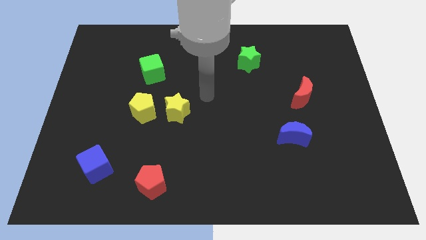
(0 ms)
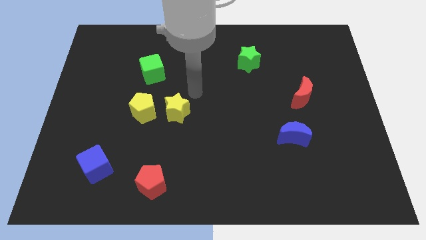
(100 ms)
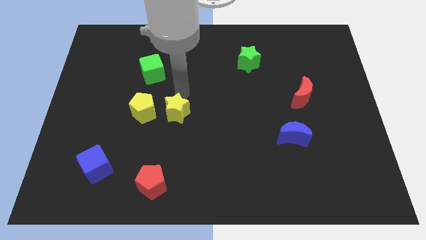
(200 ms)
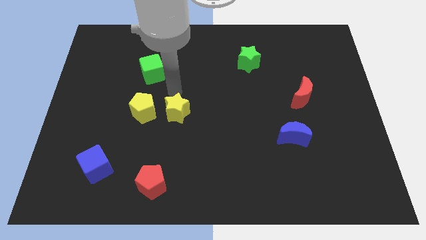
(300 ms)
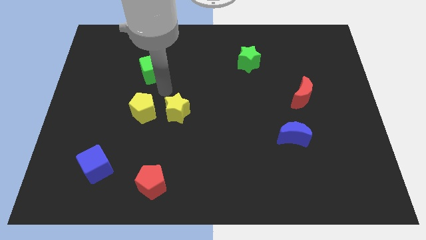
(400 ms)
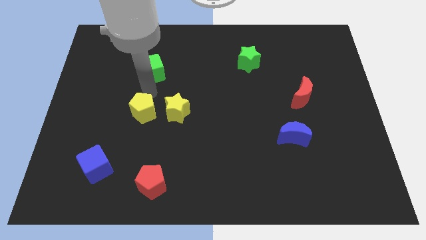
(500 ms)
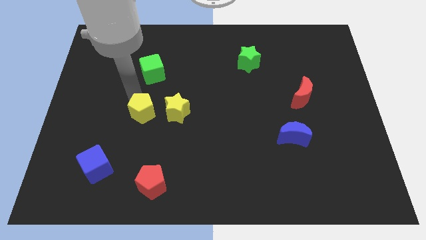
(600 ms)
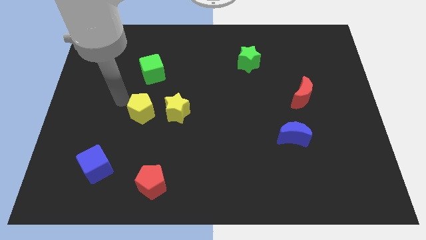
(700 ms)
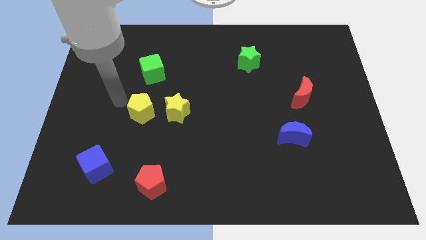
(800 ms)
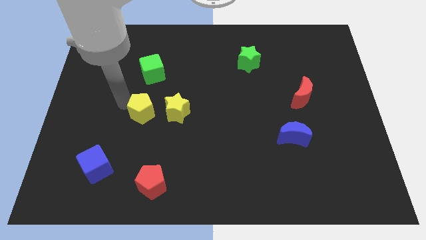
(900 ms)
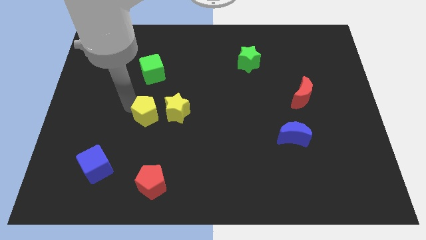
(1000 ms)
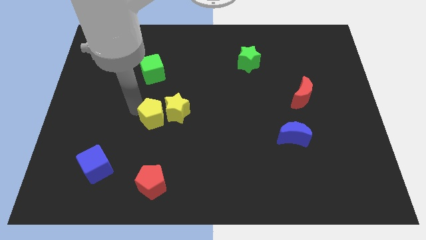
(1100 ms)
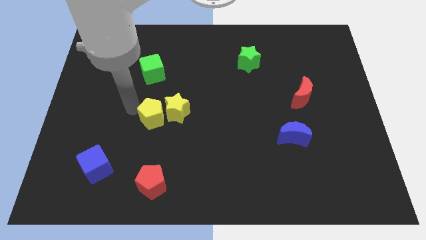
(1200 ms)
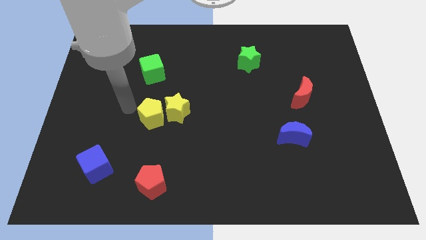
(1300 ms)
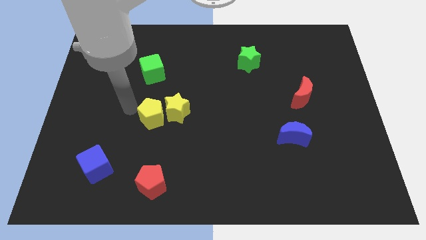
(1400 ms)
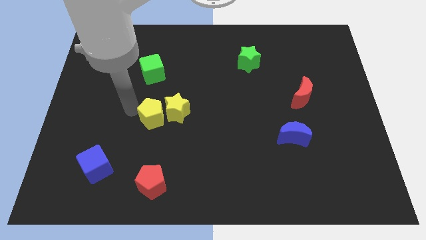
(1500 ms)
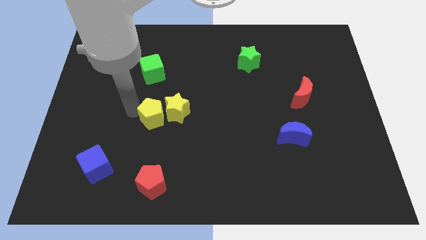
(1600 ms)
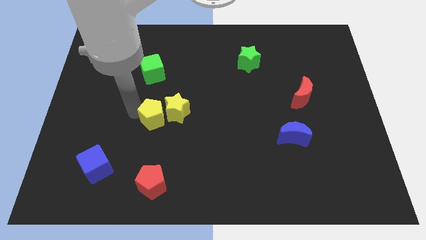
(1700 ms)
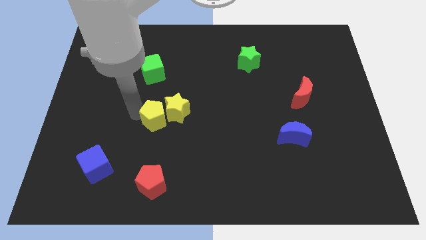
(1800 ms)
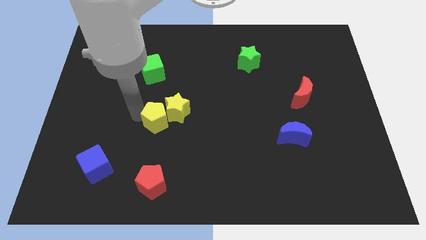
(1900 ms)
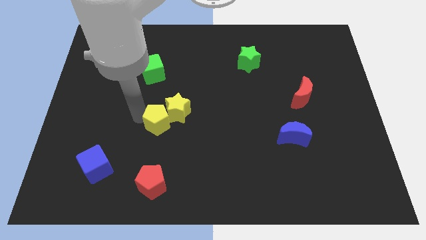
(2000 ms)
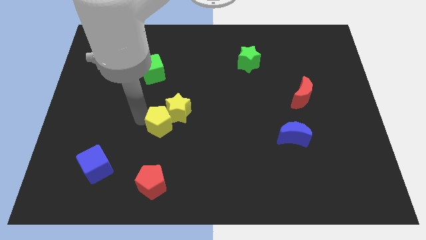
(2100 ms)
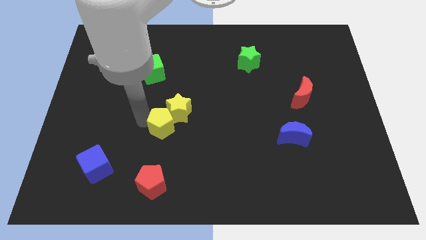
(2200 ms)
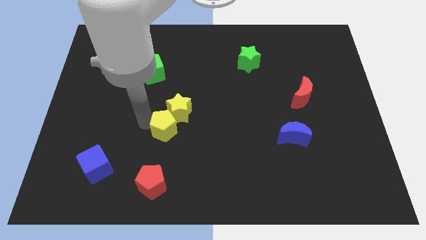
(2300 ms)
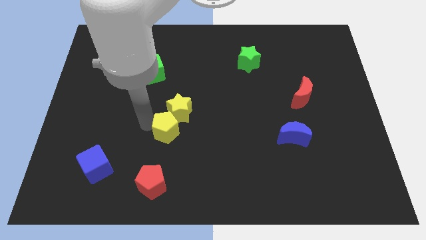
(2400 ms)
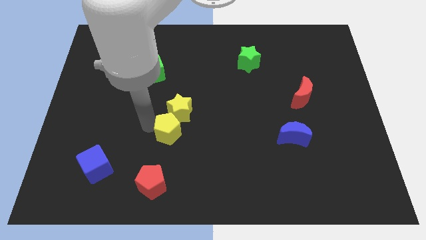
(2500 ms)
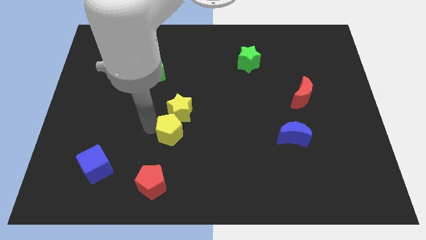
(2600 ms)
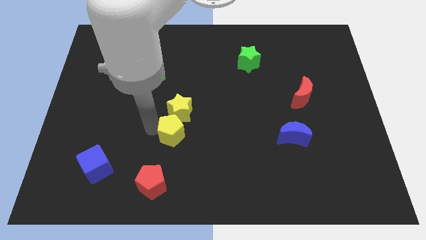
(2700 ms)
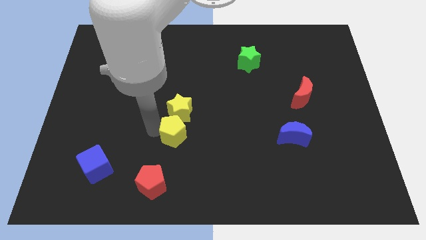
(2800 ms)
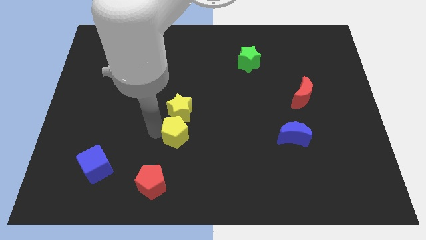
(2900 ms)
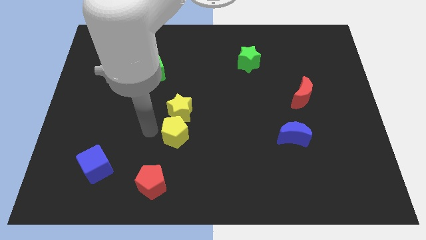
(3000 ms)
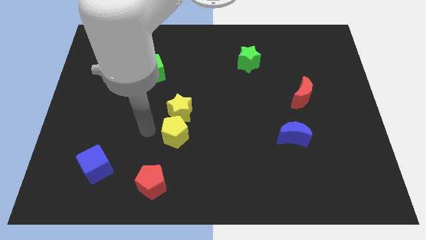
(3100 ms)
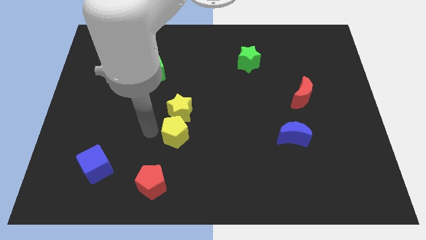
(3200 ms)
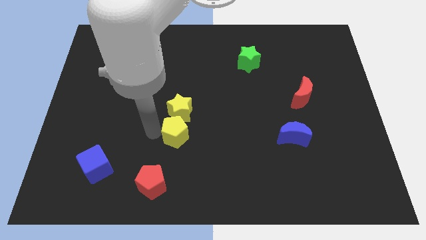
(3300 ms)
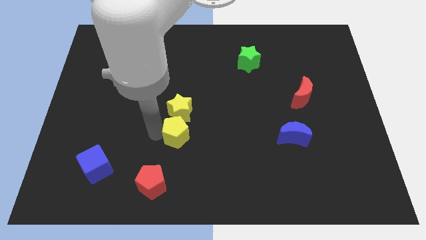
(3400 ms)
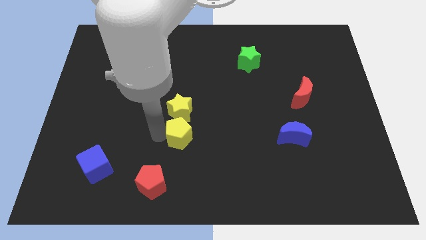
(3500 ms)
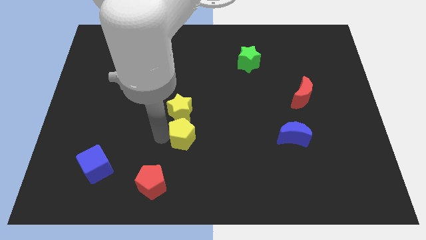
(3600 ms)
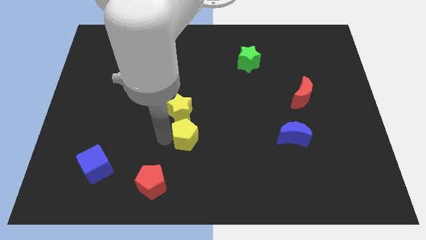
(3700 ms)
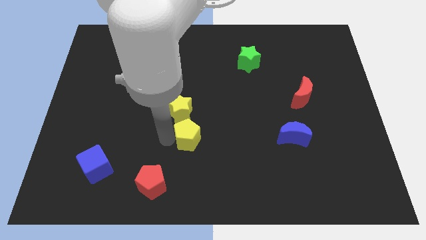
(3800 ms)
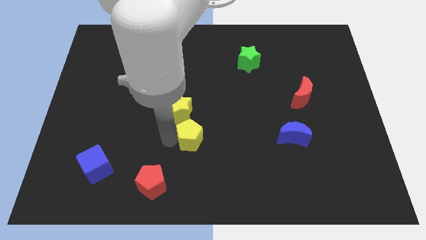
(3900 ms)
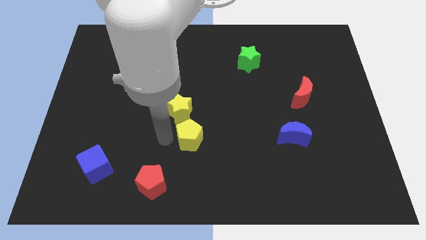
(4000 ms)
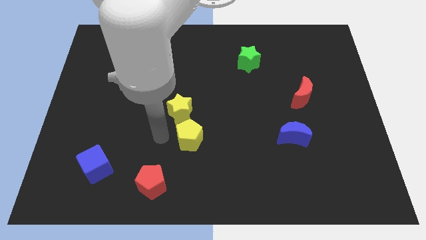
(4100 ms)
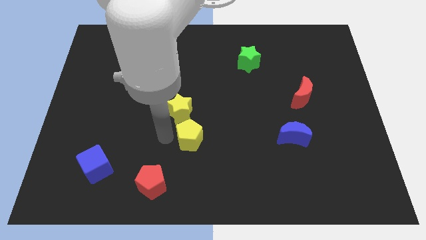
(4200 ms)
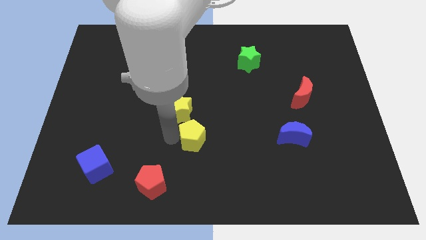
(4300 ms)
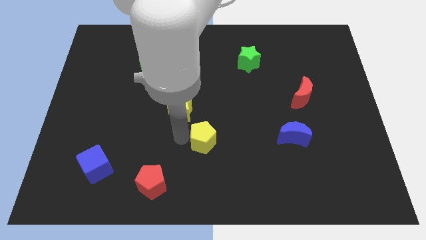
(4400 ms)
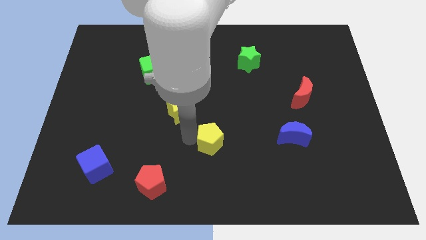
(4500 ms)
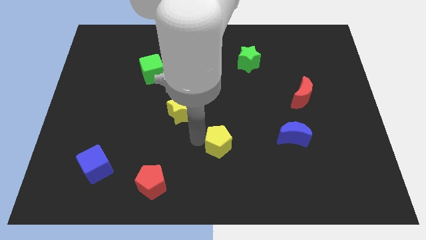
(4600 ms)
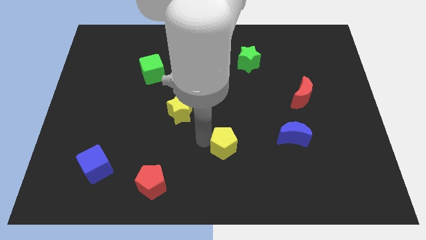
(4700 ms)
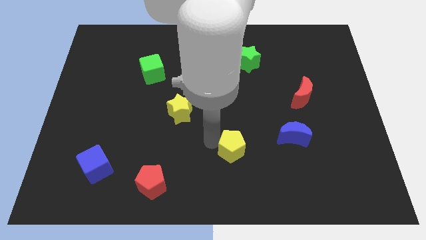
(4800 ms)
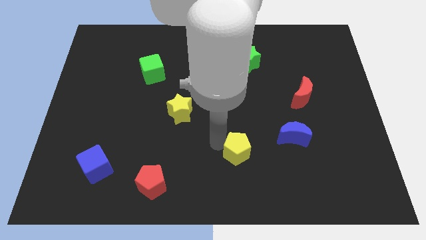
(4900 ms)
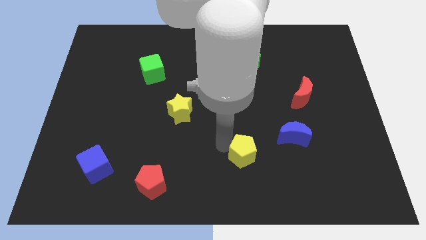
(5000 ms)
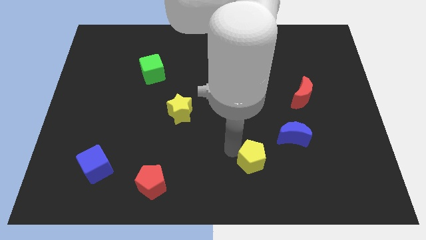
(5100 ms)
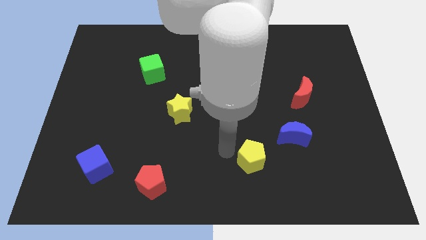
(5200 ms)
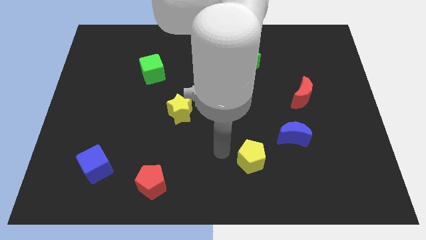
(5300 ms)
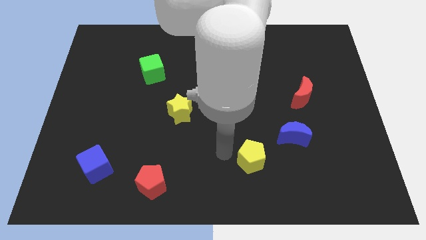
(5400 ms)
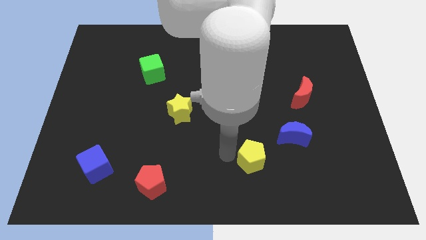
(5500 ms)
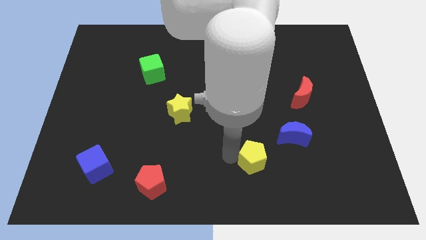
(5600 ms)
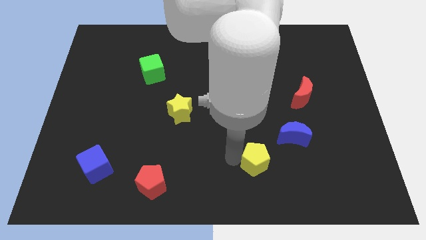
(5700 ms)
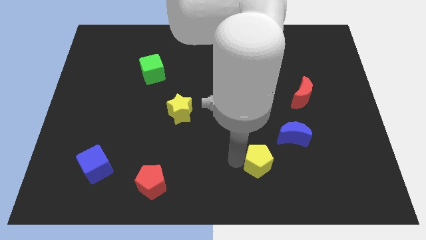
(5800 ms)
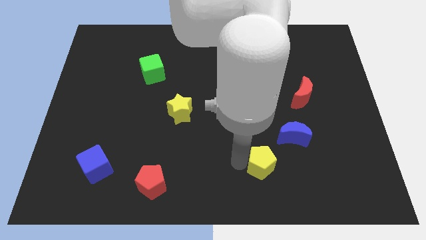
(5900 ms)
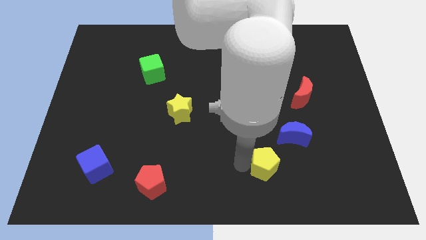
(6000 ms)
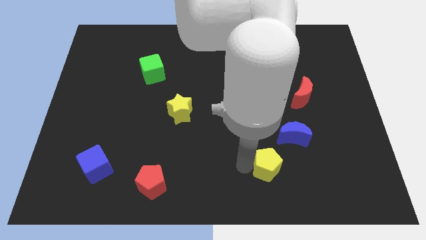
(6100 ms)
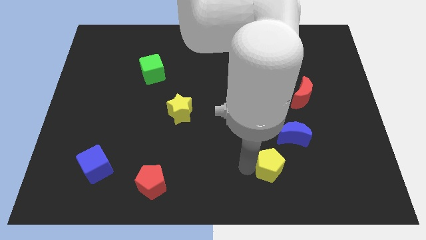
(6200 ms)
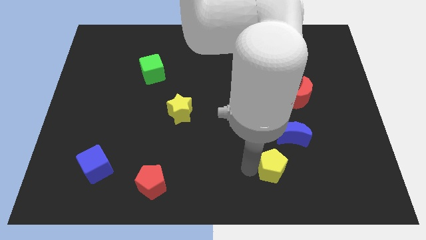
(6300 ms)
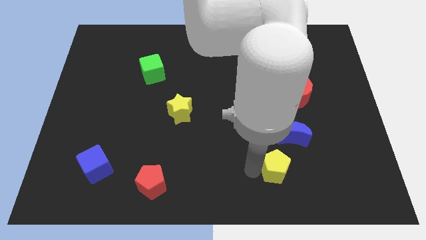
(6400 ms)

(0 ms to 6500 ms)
put the yellow pentagon to the bottom side of the blue moon
